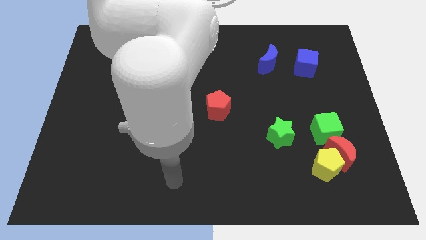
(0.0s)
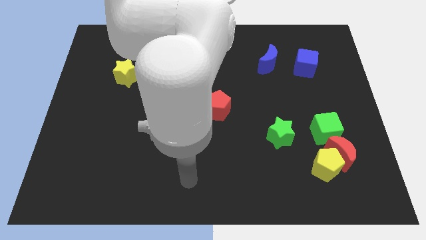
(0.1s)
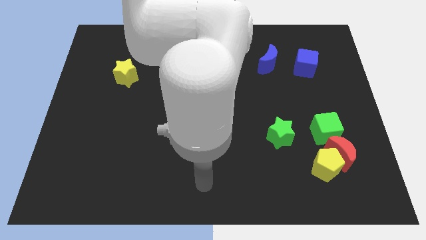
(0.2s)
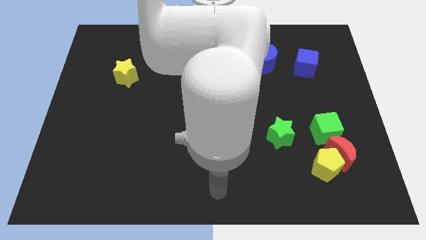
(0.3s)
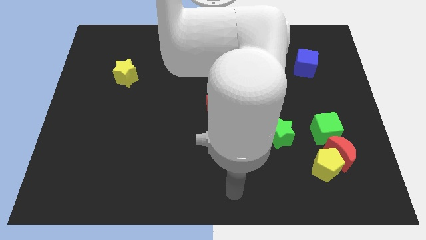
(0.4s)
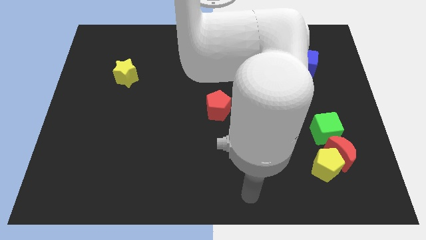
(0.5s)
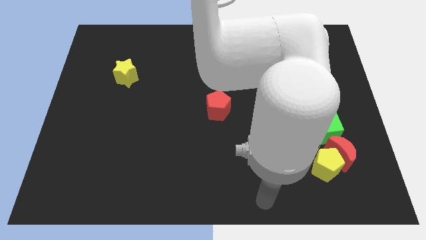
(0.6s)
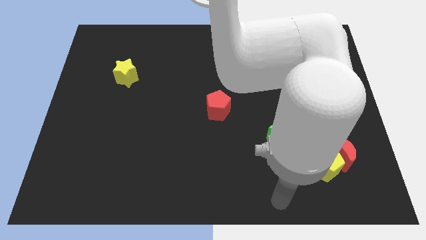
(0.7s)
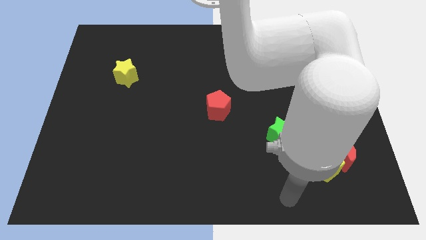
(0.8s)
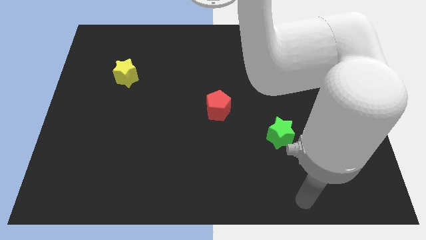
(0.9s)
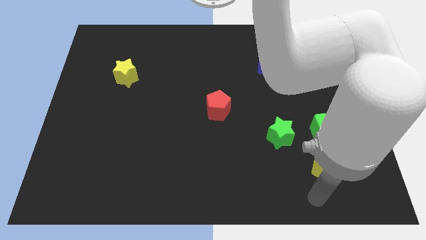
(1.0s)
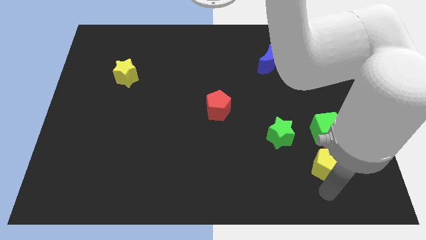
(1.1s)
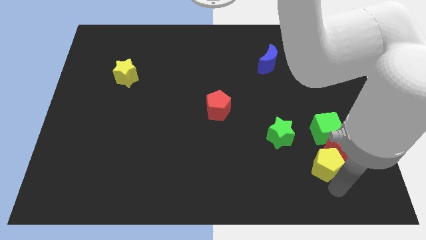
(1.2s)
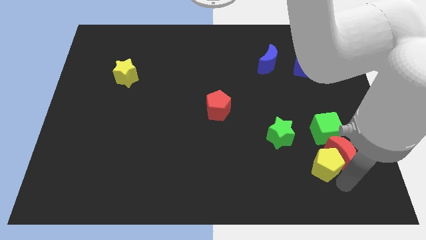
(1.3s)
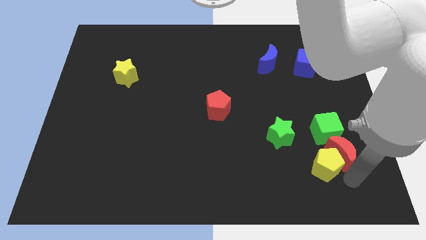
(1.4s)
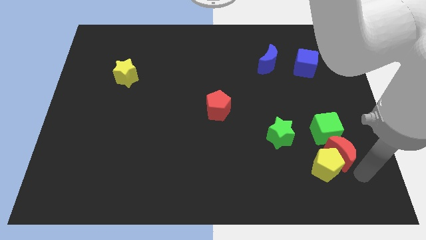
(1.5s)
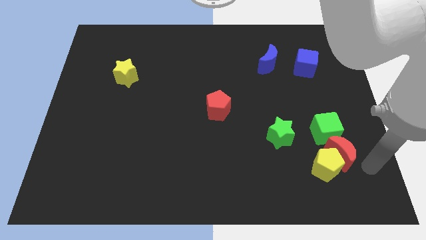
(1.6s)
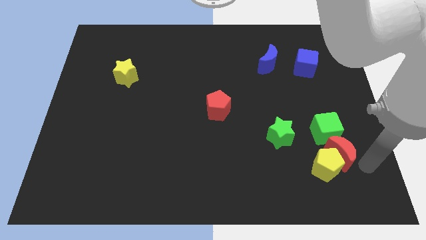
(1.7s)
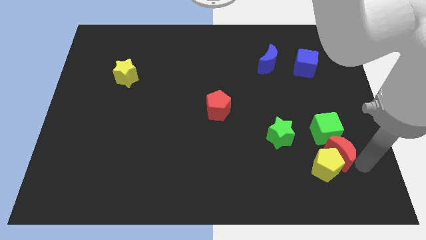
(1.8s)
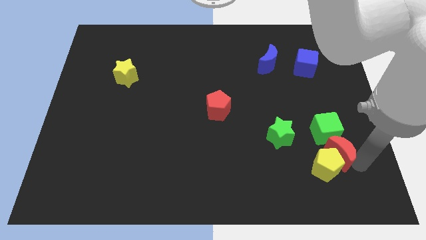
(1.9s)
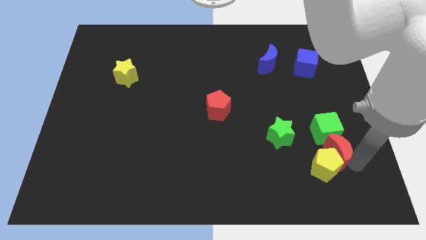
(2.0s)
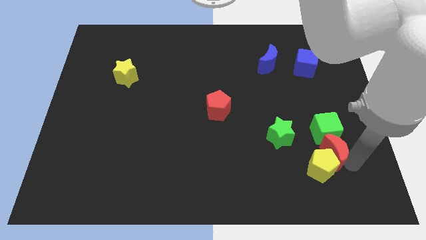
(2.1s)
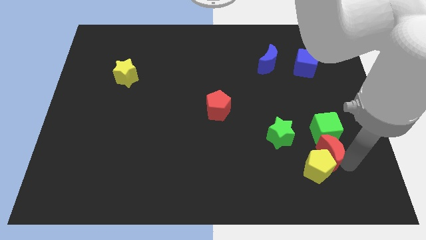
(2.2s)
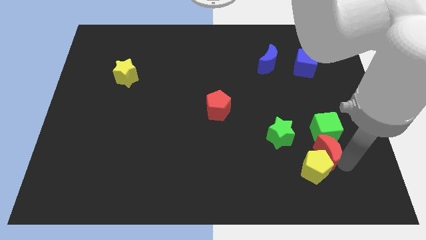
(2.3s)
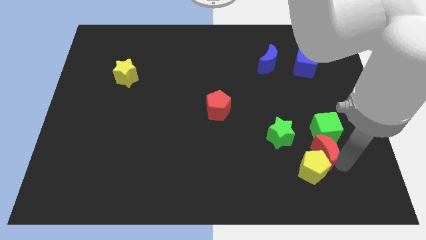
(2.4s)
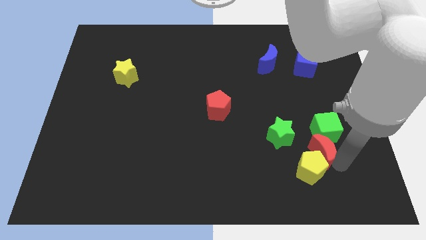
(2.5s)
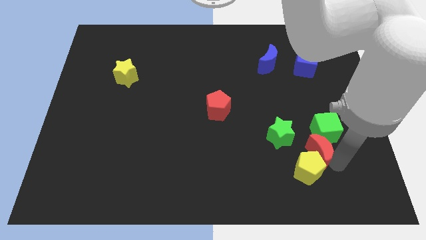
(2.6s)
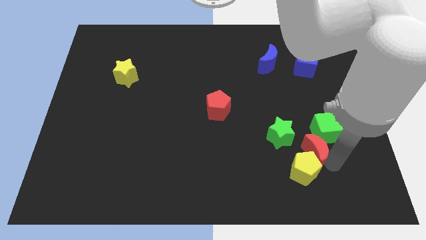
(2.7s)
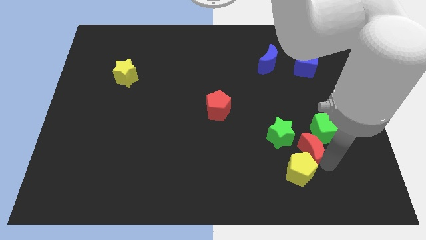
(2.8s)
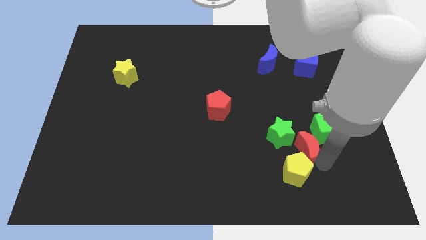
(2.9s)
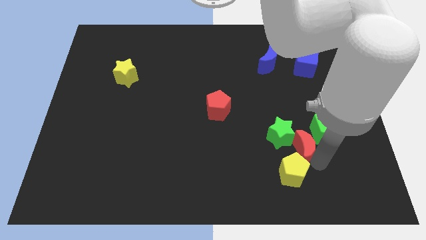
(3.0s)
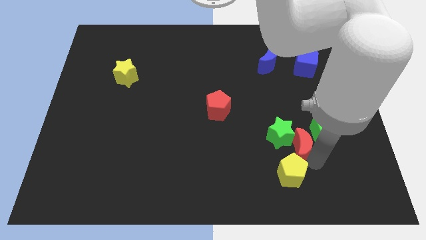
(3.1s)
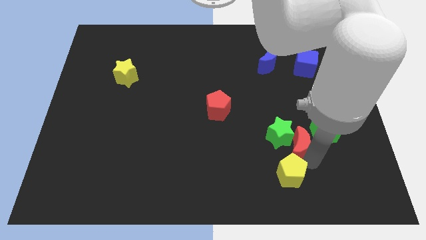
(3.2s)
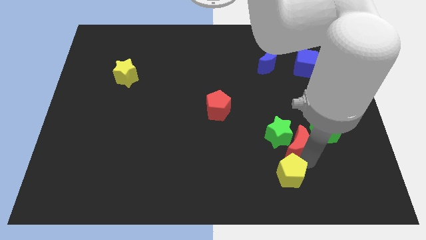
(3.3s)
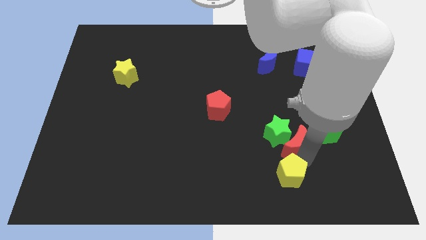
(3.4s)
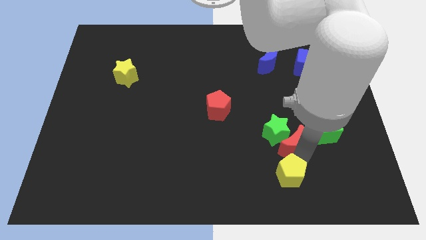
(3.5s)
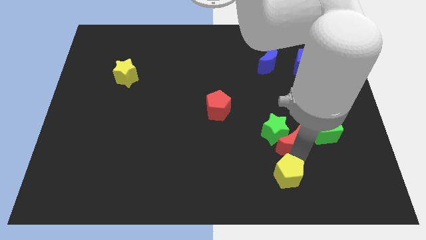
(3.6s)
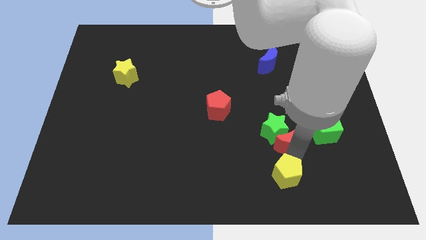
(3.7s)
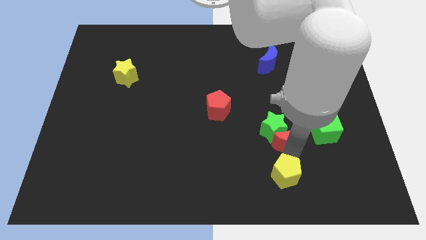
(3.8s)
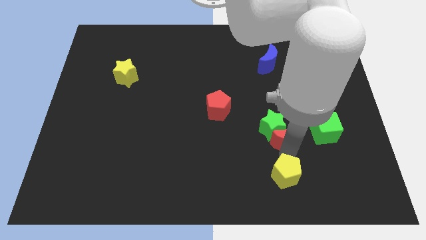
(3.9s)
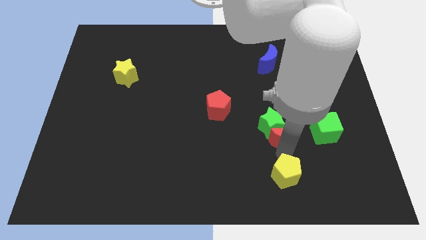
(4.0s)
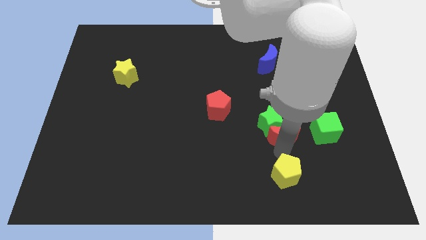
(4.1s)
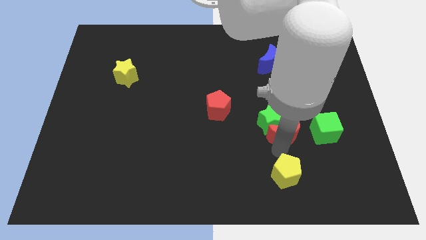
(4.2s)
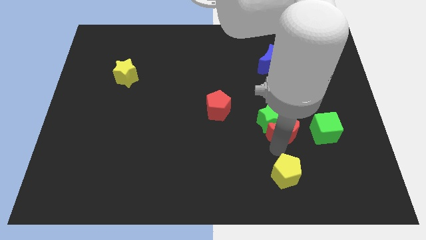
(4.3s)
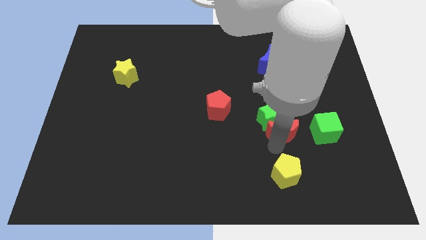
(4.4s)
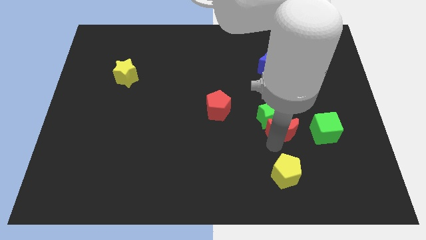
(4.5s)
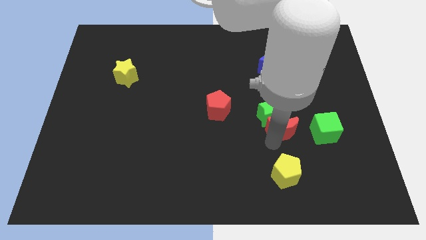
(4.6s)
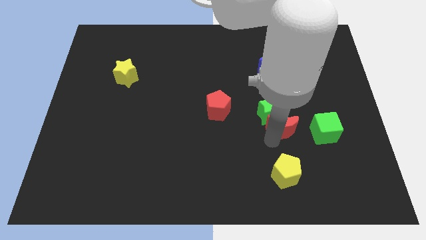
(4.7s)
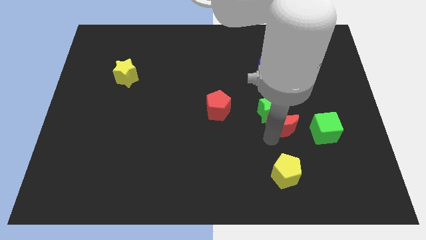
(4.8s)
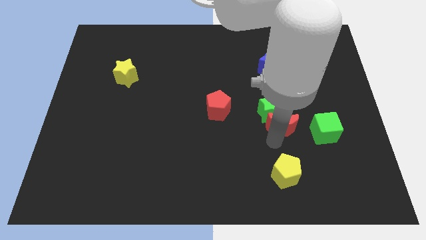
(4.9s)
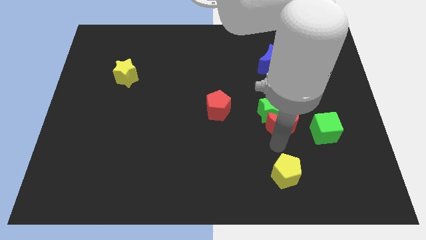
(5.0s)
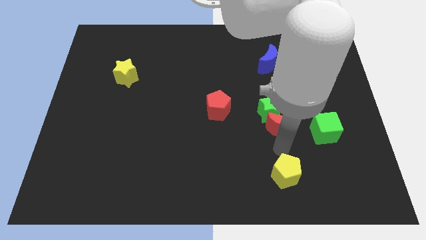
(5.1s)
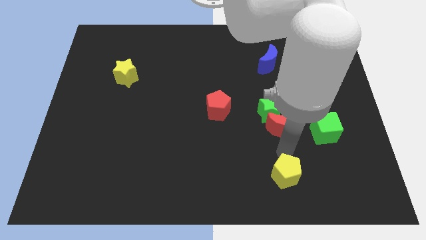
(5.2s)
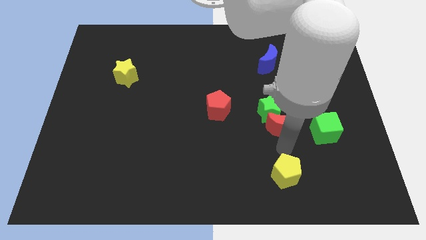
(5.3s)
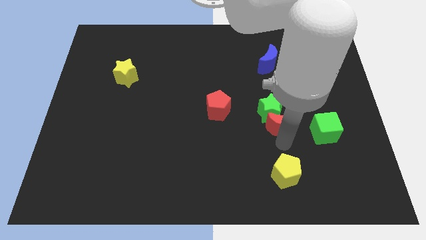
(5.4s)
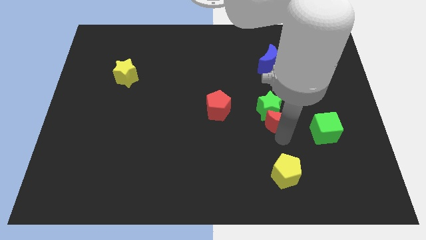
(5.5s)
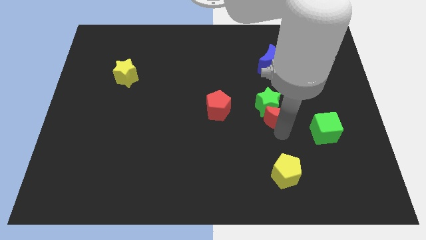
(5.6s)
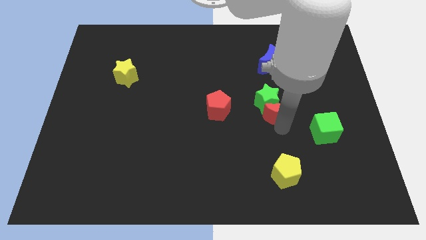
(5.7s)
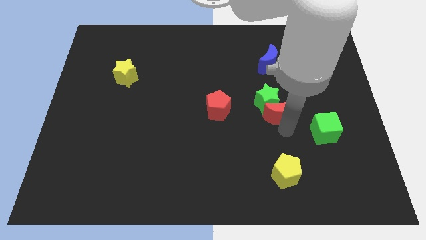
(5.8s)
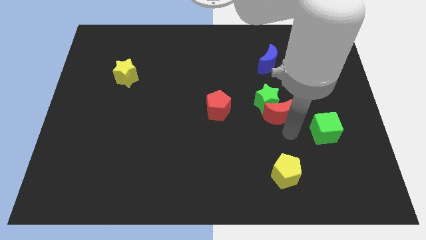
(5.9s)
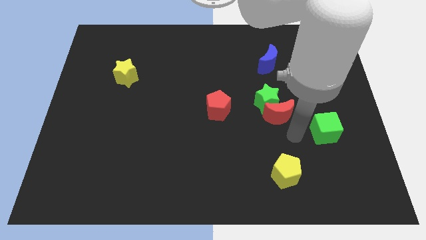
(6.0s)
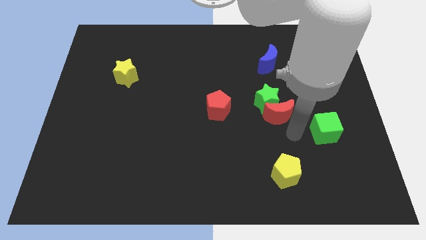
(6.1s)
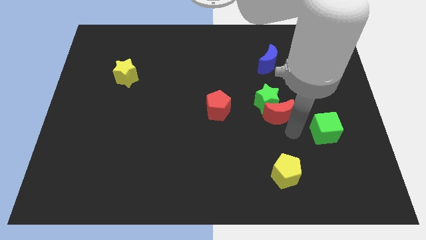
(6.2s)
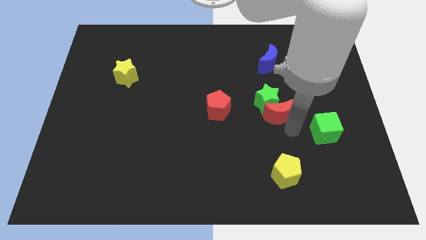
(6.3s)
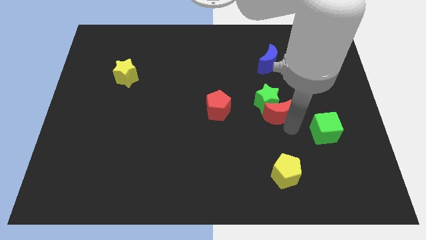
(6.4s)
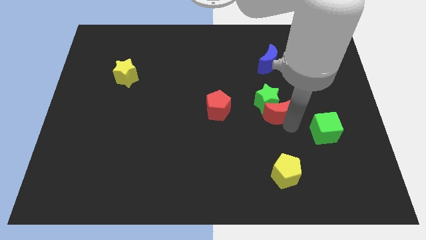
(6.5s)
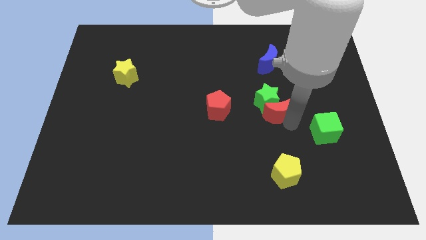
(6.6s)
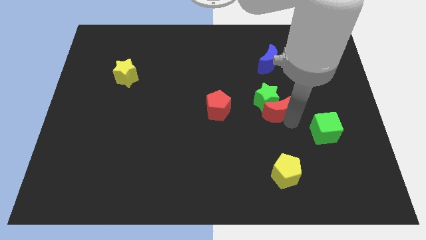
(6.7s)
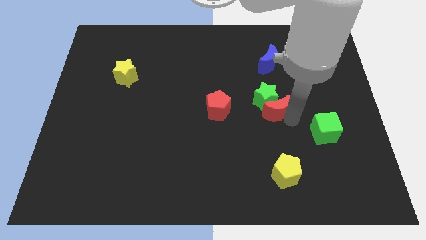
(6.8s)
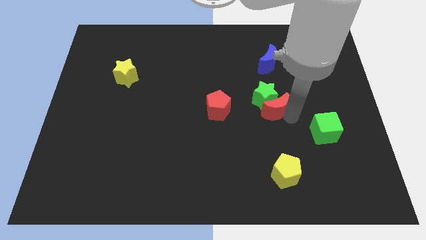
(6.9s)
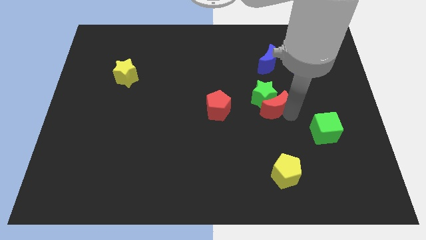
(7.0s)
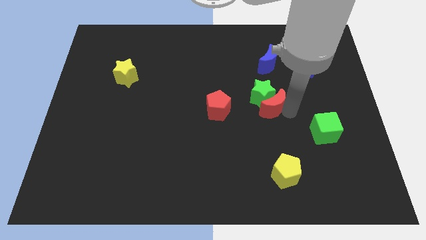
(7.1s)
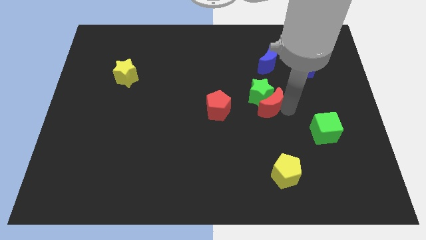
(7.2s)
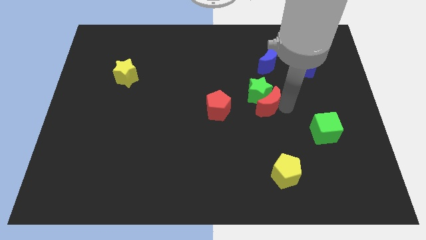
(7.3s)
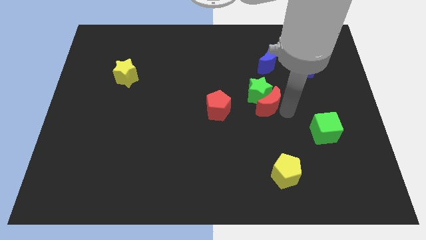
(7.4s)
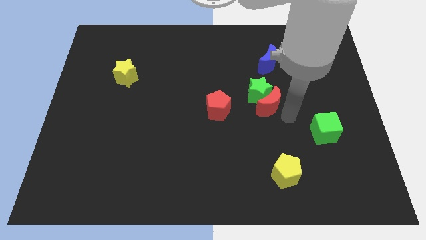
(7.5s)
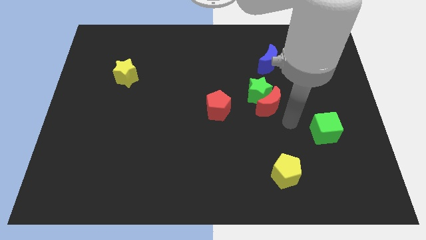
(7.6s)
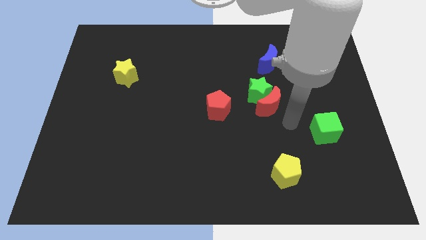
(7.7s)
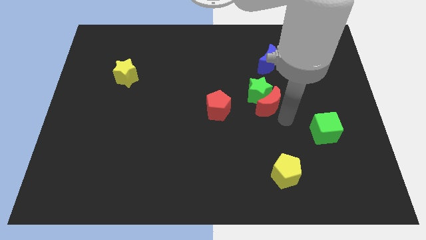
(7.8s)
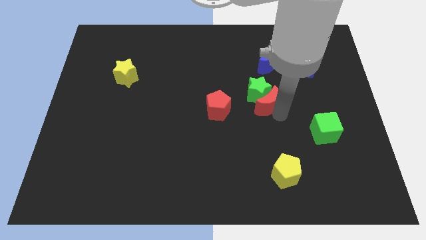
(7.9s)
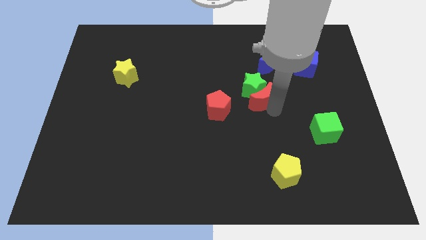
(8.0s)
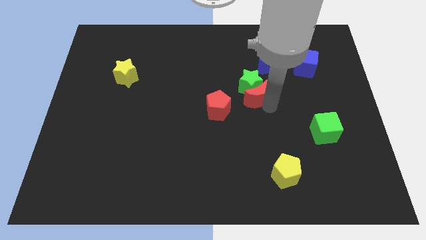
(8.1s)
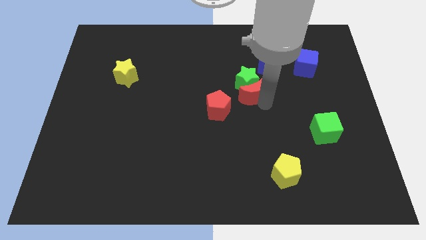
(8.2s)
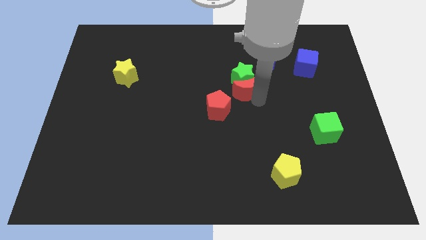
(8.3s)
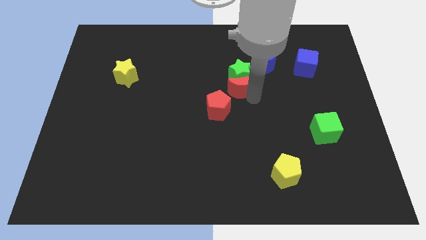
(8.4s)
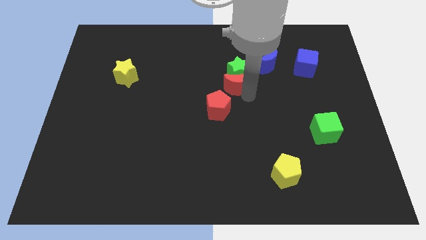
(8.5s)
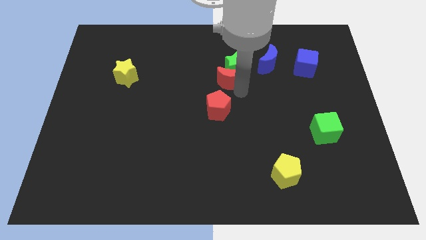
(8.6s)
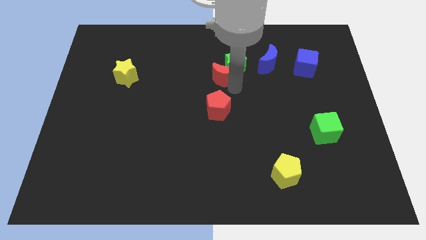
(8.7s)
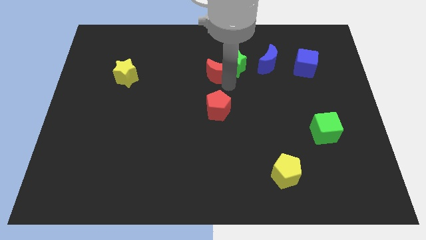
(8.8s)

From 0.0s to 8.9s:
slide the red moon to the left of the blue moon
